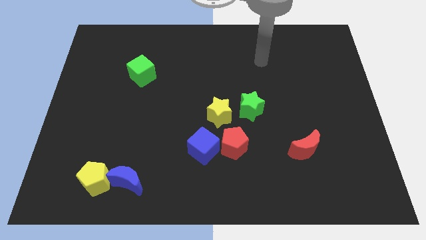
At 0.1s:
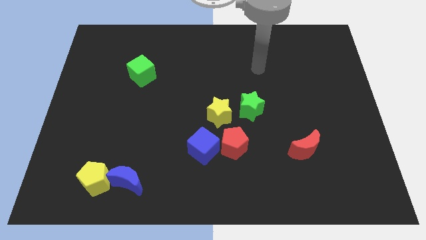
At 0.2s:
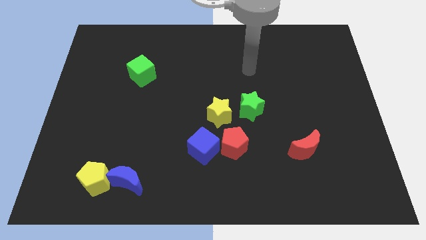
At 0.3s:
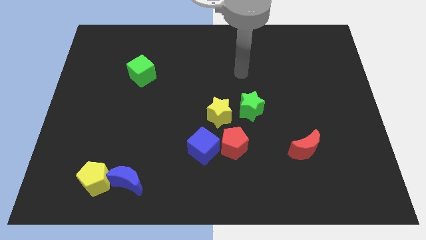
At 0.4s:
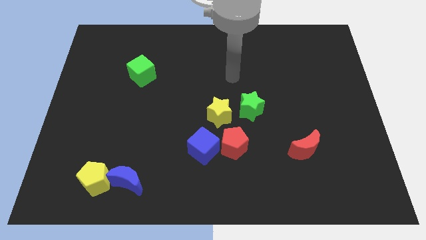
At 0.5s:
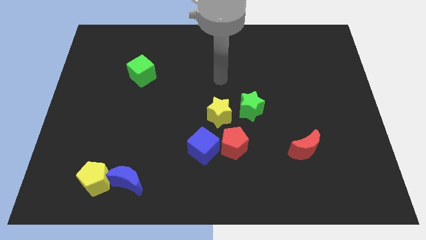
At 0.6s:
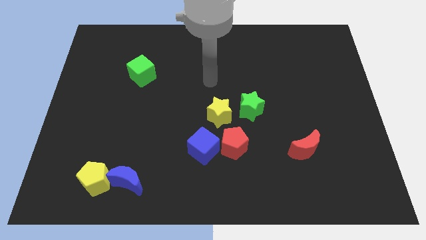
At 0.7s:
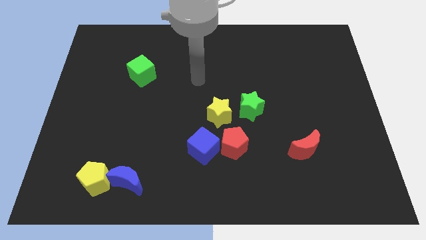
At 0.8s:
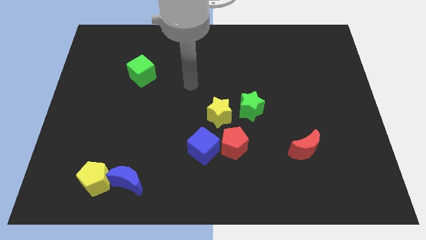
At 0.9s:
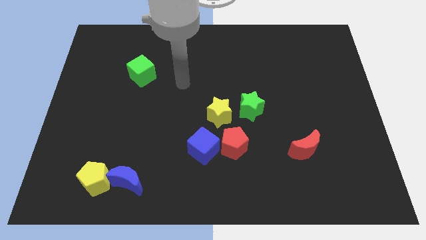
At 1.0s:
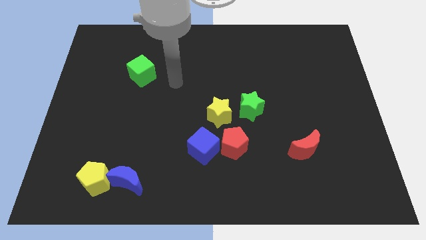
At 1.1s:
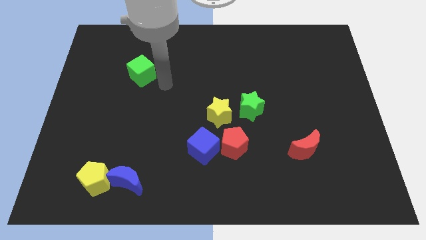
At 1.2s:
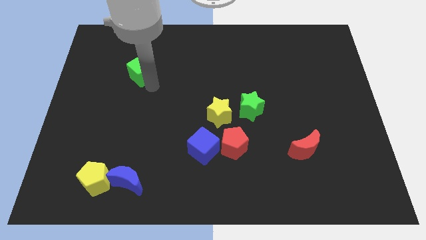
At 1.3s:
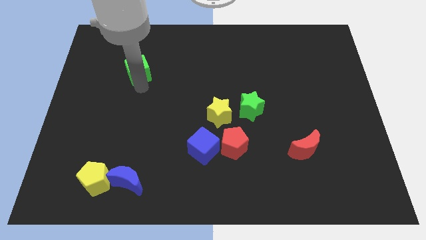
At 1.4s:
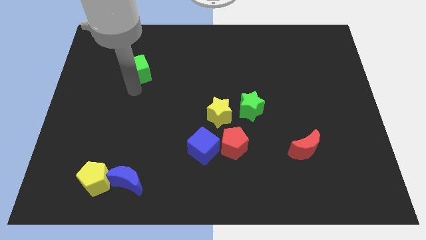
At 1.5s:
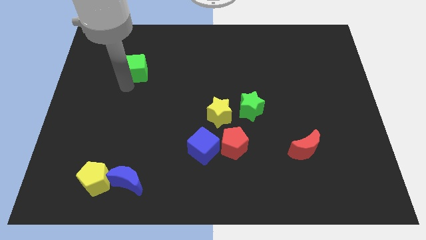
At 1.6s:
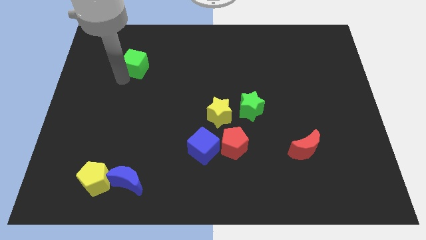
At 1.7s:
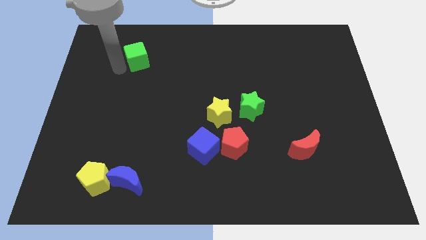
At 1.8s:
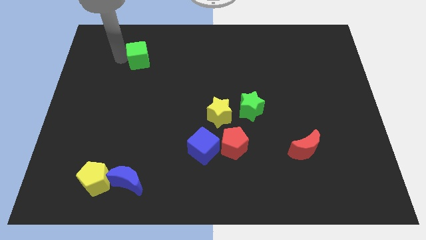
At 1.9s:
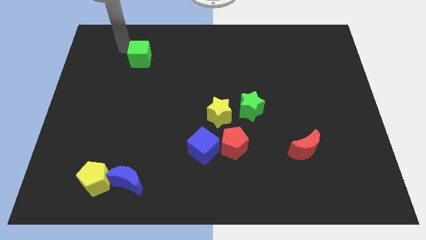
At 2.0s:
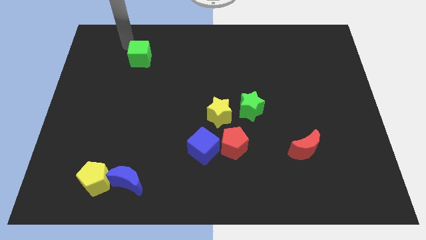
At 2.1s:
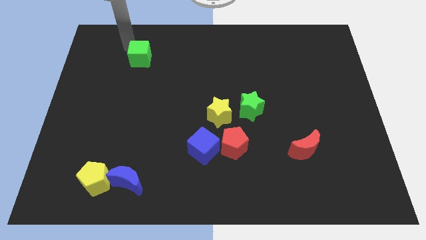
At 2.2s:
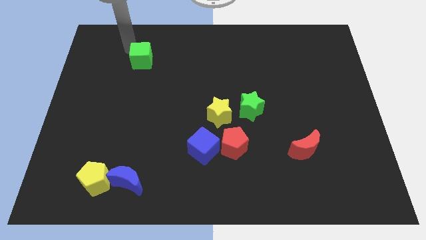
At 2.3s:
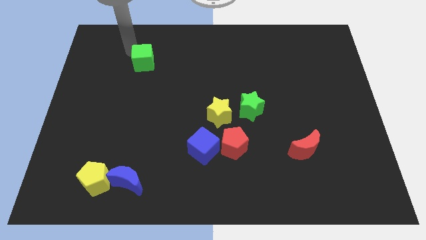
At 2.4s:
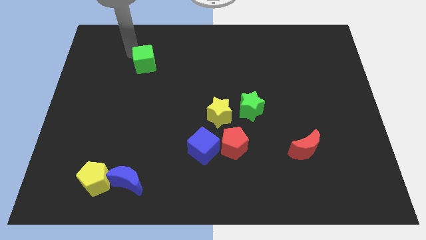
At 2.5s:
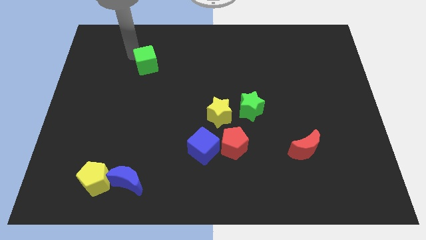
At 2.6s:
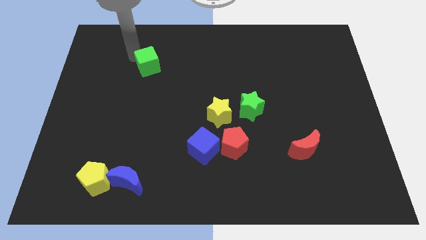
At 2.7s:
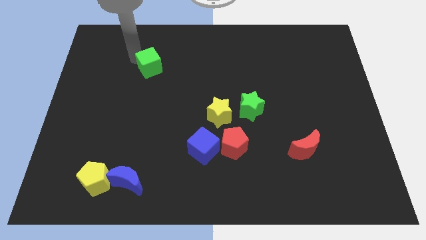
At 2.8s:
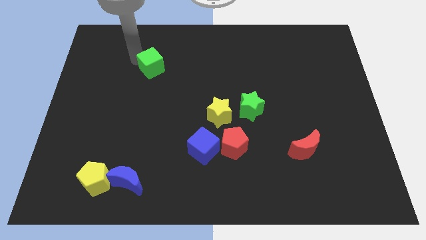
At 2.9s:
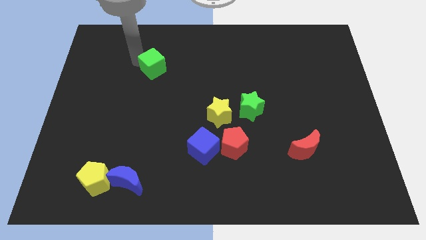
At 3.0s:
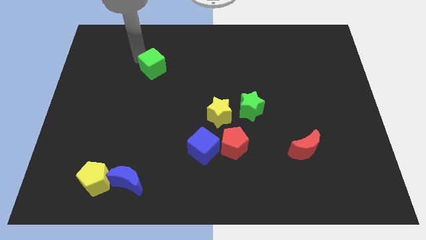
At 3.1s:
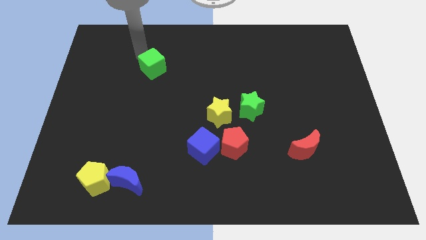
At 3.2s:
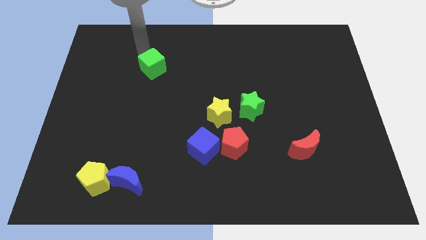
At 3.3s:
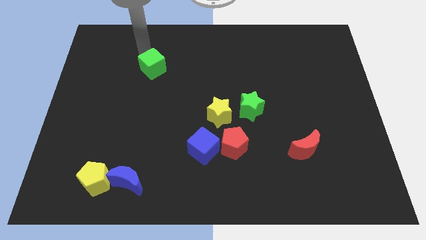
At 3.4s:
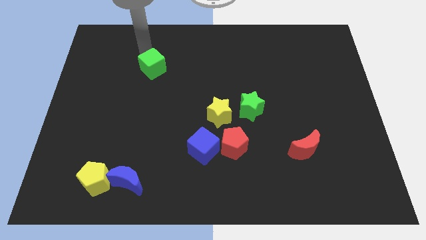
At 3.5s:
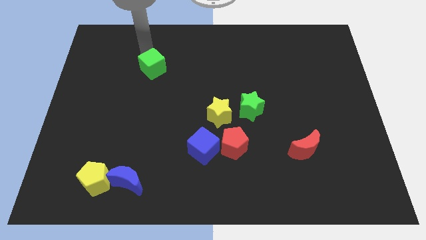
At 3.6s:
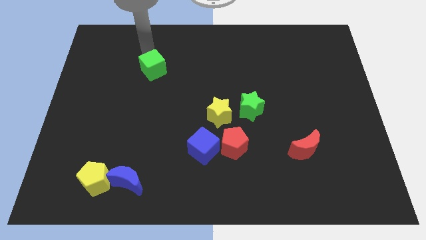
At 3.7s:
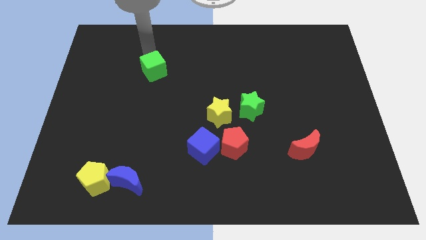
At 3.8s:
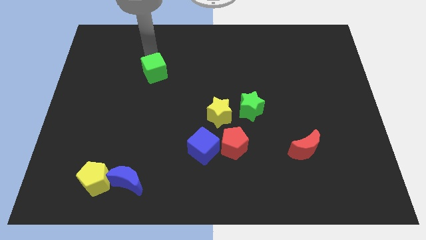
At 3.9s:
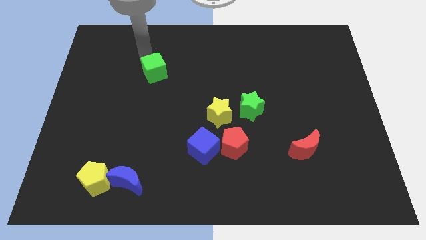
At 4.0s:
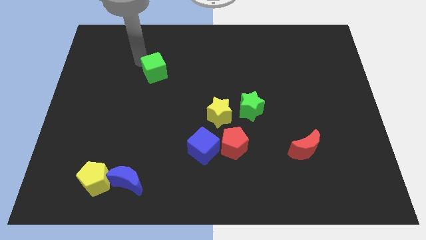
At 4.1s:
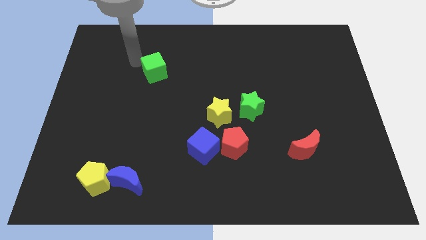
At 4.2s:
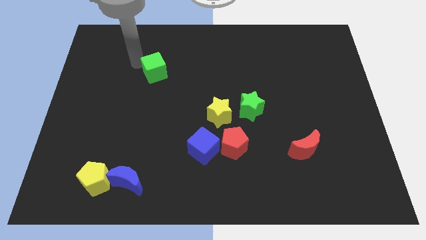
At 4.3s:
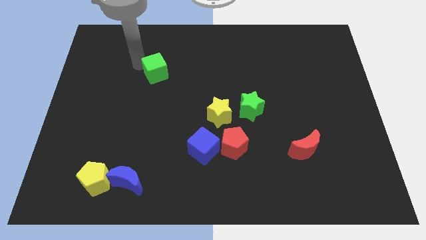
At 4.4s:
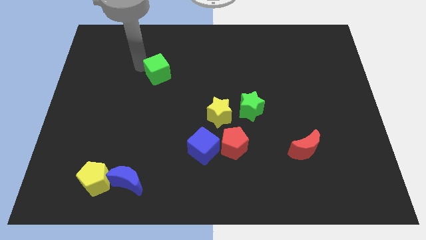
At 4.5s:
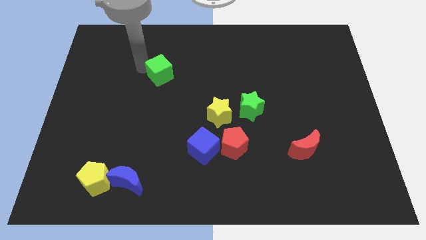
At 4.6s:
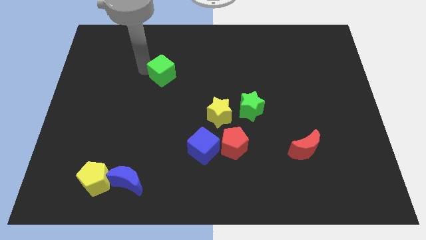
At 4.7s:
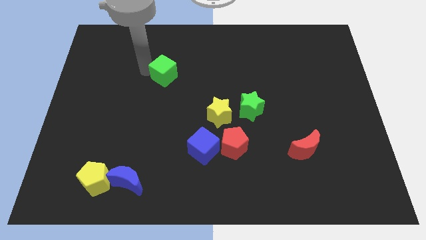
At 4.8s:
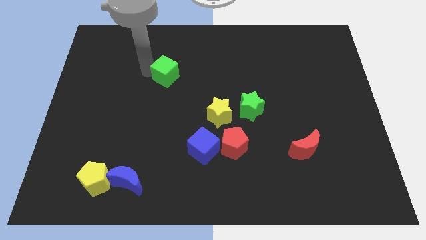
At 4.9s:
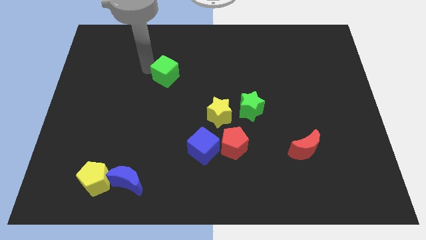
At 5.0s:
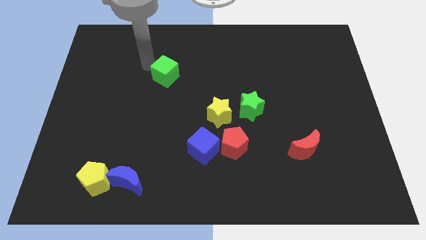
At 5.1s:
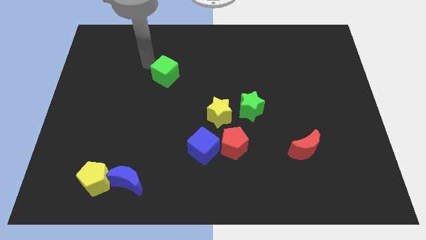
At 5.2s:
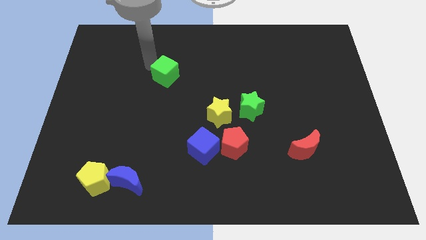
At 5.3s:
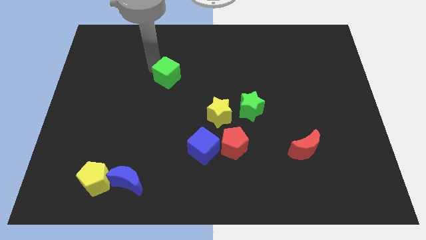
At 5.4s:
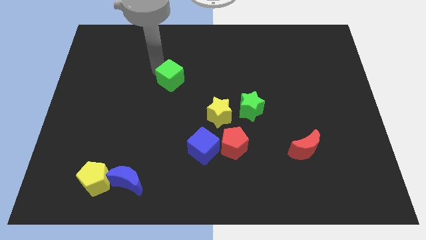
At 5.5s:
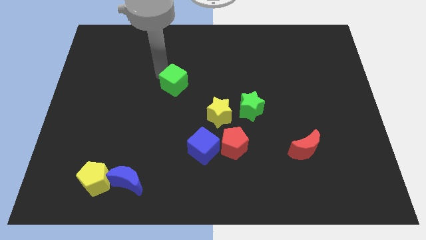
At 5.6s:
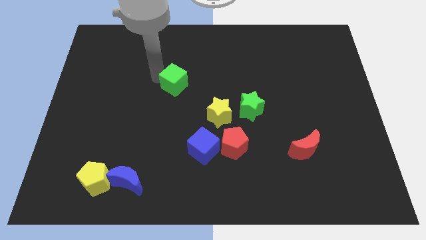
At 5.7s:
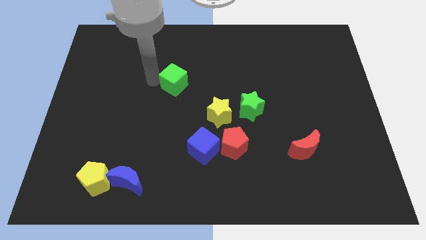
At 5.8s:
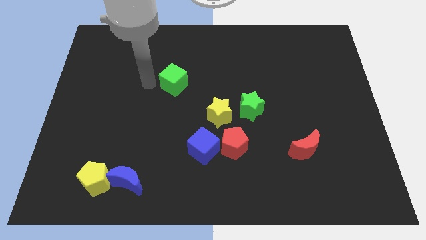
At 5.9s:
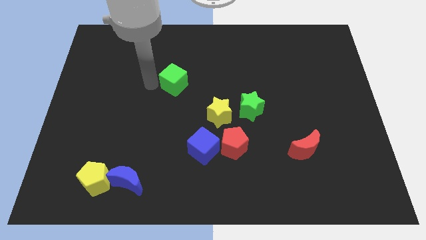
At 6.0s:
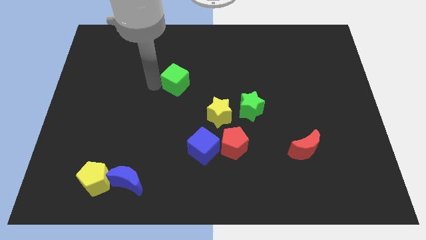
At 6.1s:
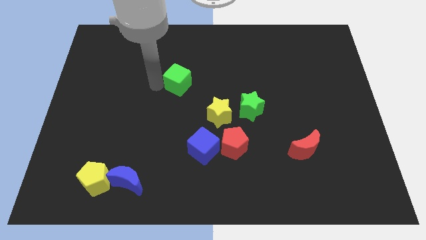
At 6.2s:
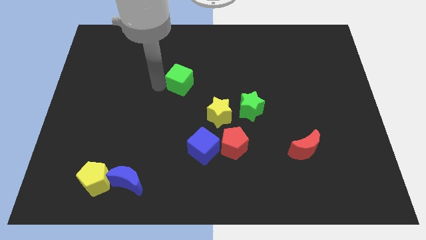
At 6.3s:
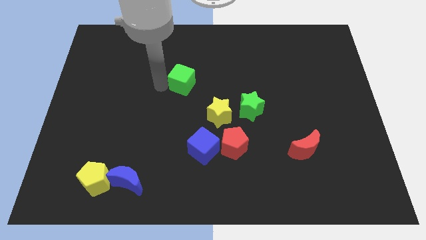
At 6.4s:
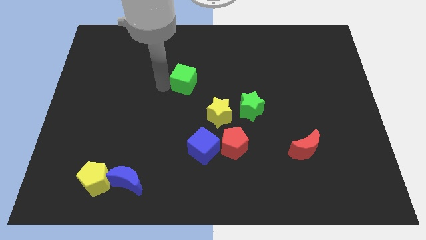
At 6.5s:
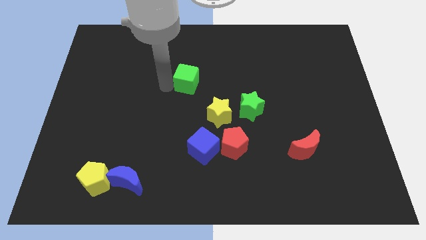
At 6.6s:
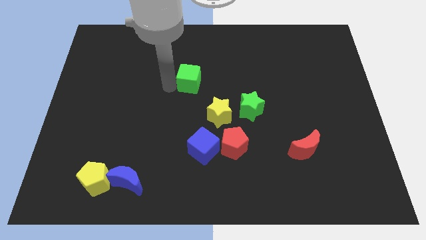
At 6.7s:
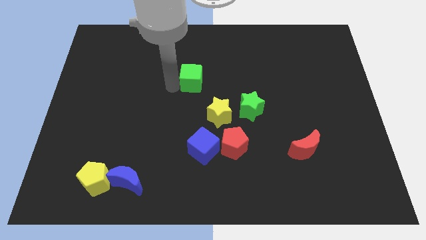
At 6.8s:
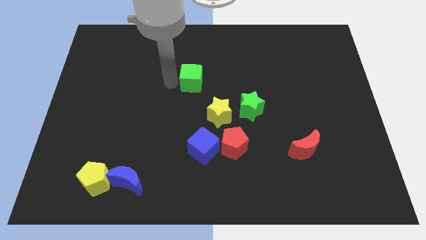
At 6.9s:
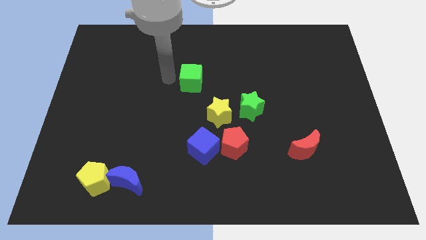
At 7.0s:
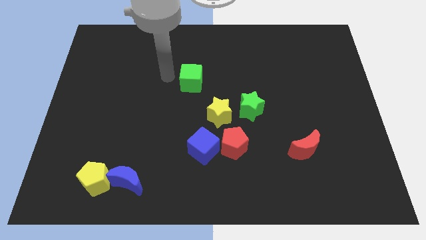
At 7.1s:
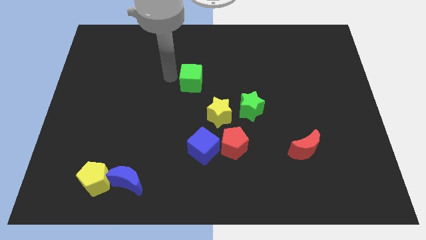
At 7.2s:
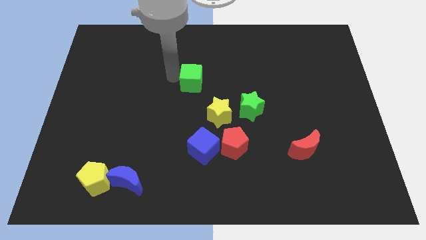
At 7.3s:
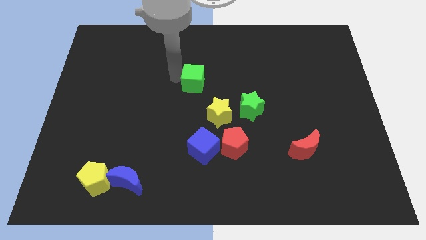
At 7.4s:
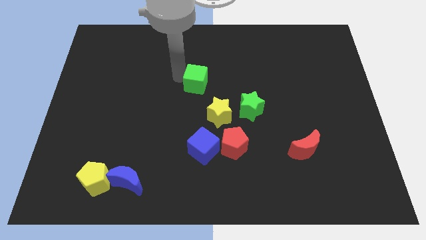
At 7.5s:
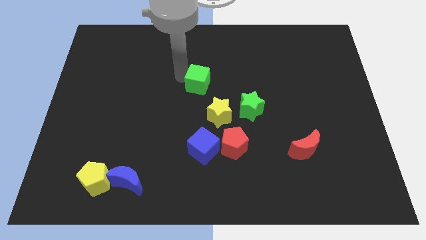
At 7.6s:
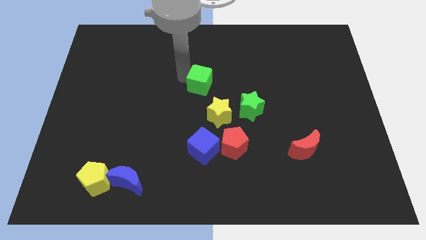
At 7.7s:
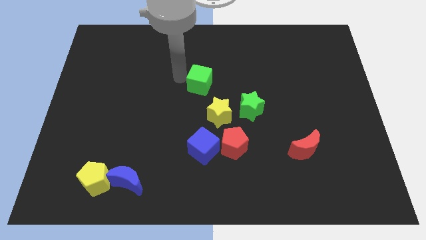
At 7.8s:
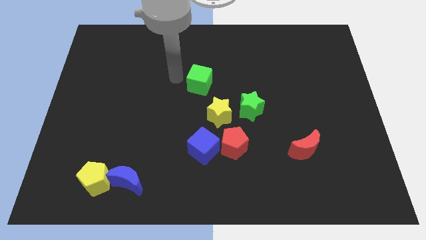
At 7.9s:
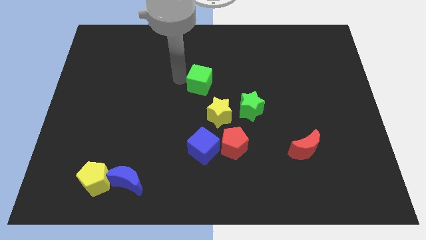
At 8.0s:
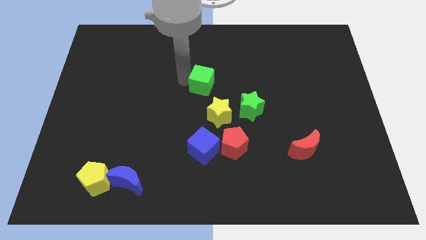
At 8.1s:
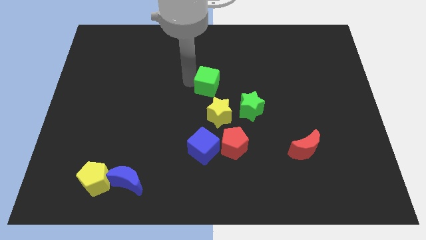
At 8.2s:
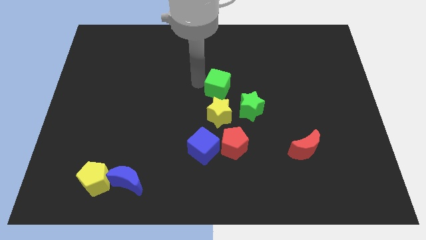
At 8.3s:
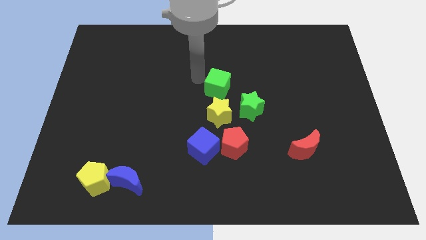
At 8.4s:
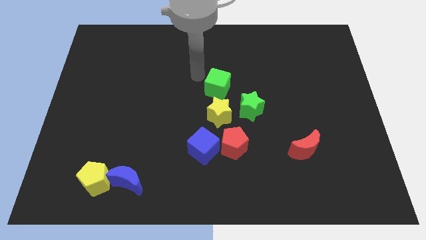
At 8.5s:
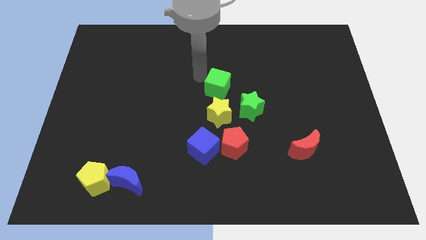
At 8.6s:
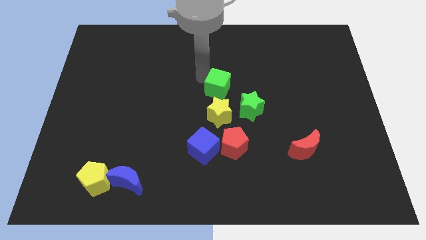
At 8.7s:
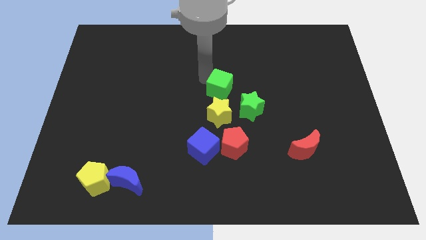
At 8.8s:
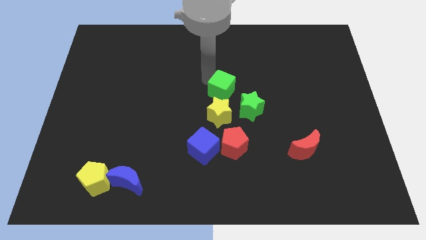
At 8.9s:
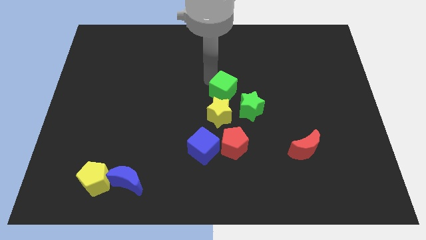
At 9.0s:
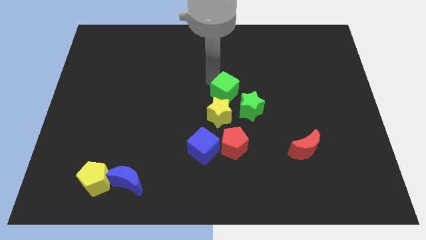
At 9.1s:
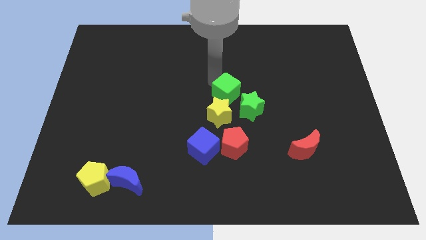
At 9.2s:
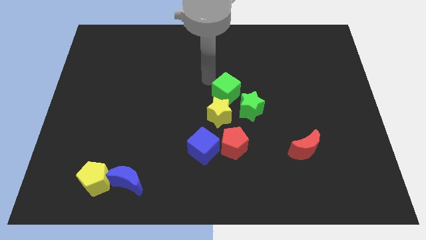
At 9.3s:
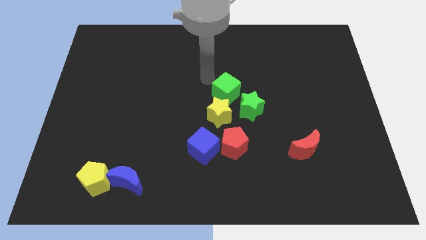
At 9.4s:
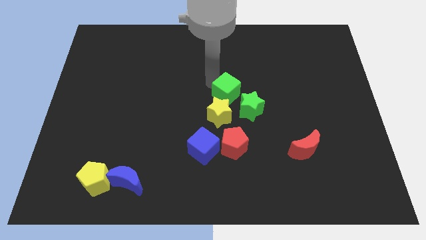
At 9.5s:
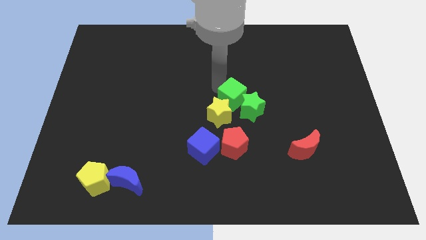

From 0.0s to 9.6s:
slide the green cube close to the green star
